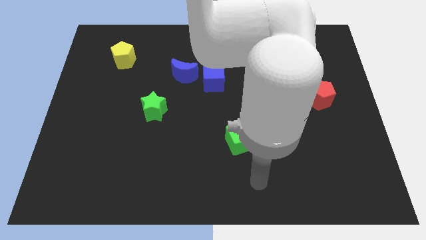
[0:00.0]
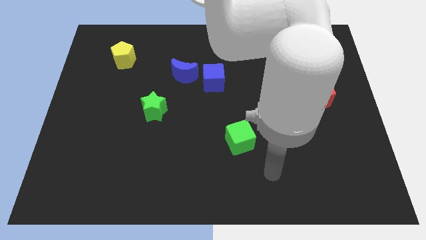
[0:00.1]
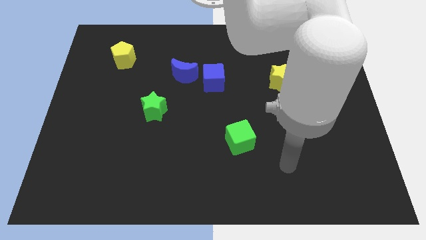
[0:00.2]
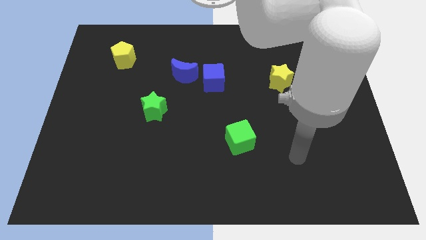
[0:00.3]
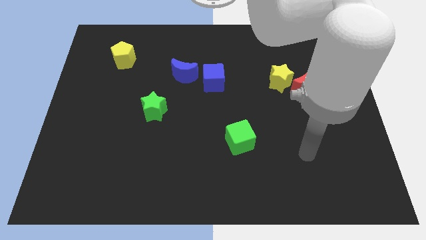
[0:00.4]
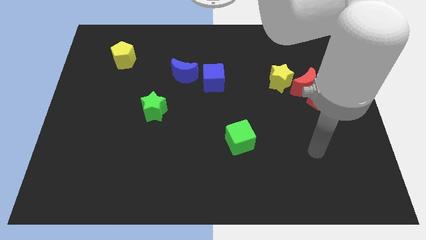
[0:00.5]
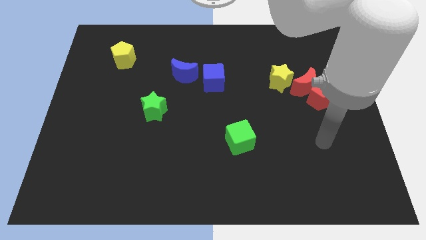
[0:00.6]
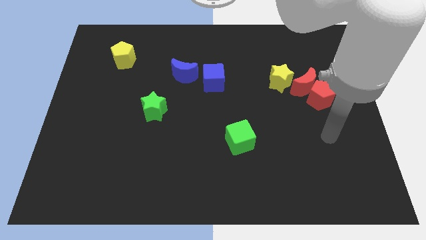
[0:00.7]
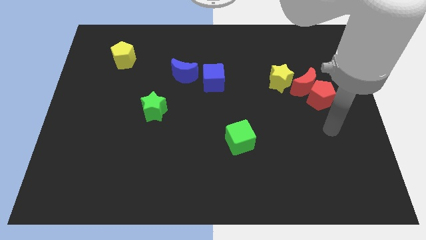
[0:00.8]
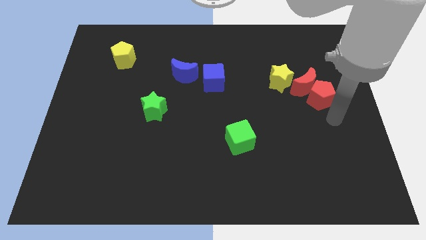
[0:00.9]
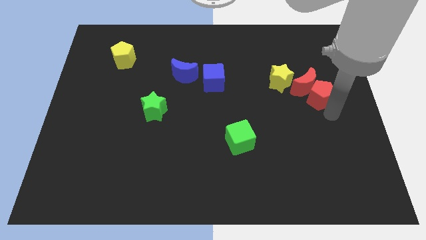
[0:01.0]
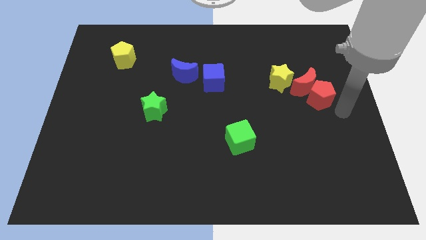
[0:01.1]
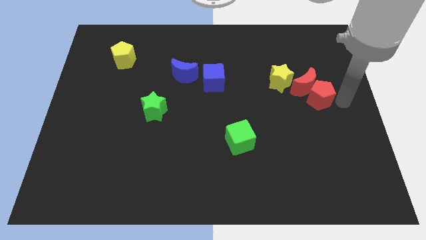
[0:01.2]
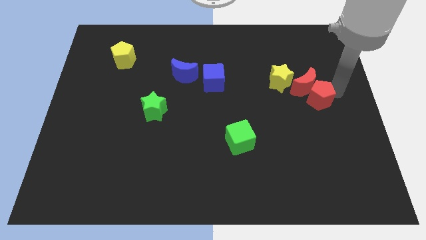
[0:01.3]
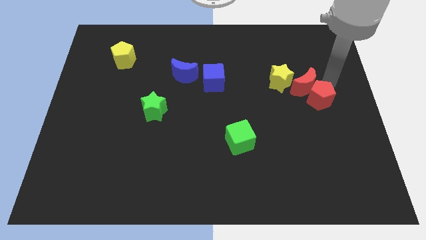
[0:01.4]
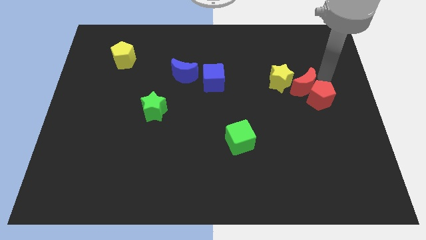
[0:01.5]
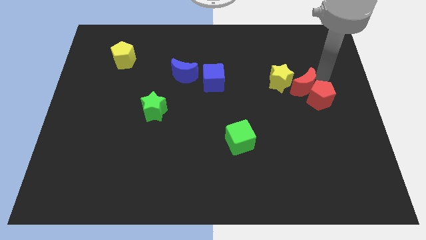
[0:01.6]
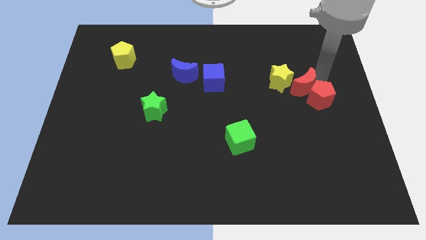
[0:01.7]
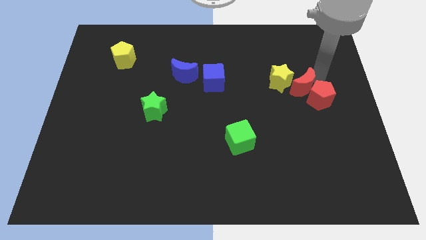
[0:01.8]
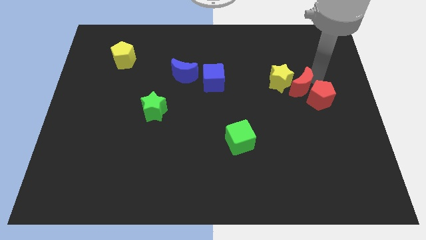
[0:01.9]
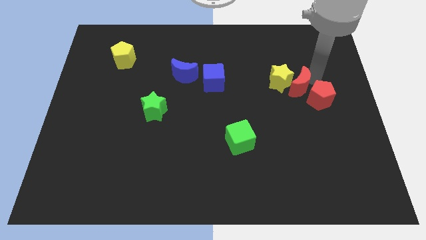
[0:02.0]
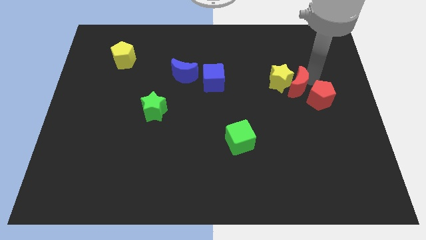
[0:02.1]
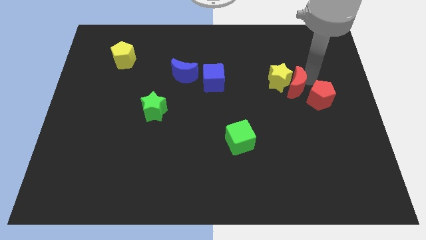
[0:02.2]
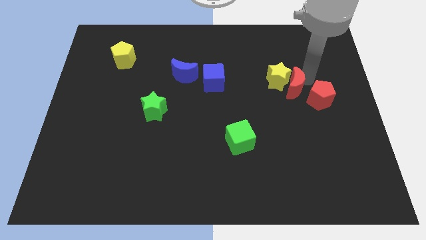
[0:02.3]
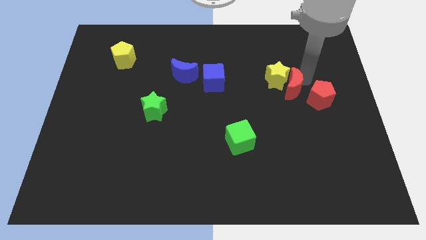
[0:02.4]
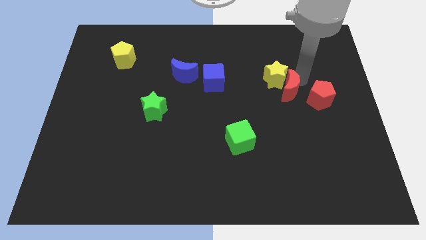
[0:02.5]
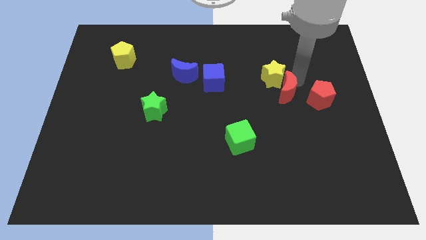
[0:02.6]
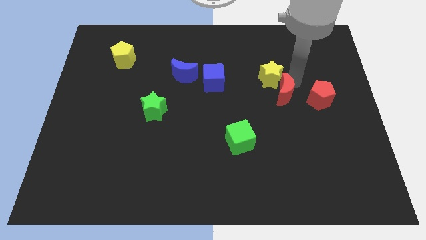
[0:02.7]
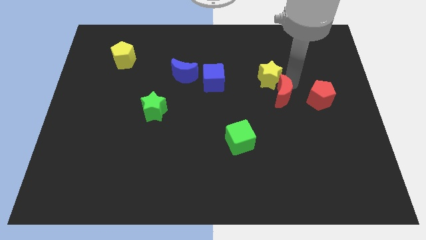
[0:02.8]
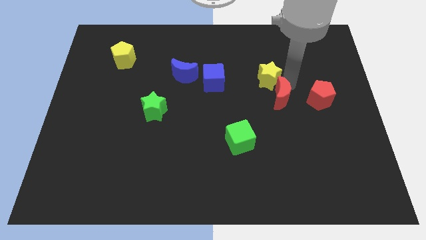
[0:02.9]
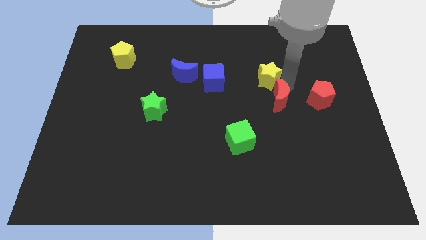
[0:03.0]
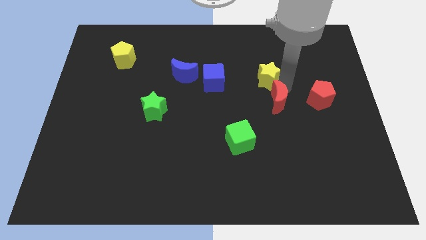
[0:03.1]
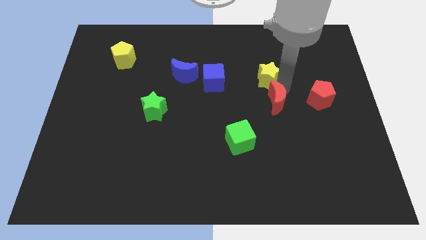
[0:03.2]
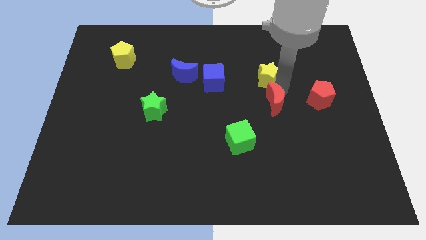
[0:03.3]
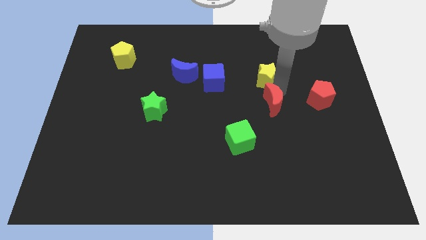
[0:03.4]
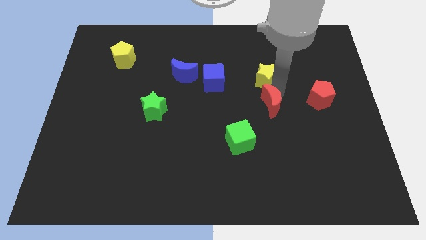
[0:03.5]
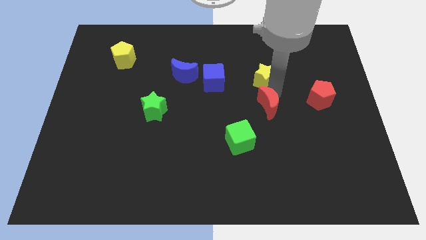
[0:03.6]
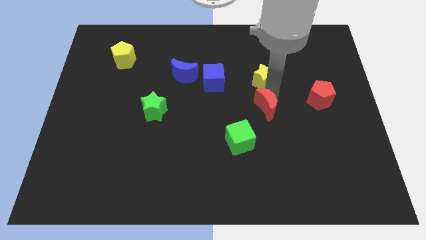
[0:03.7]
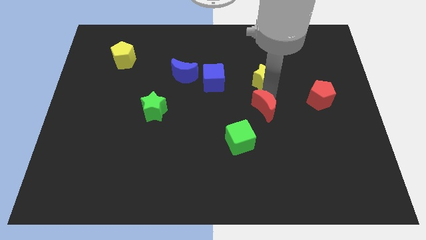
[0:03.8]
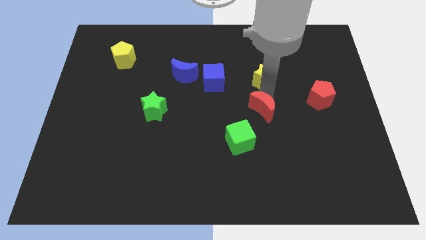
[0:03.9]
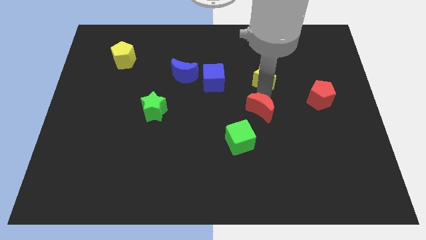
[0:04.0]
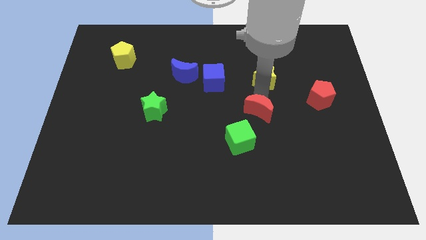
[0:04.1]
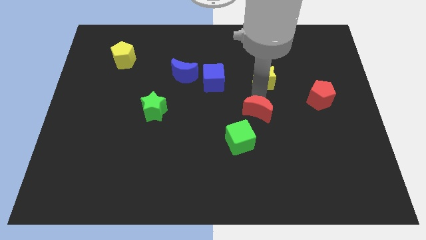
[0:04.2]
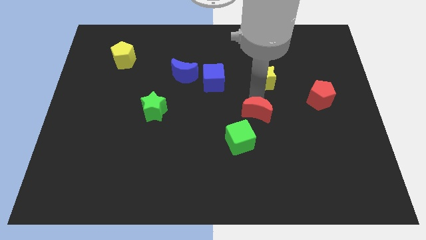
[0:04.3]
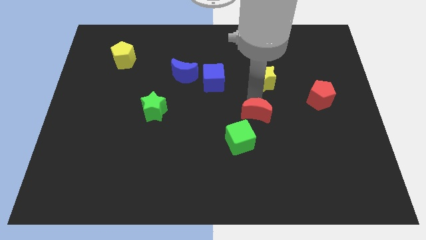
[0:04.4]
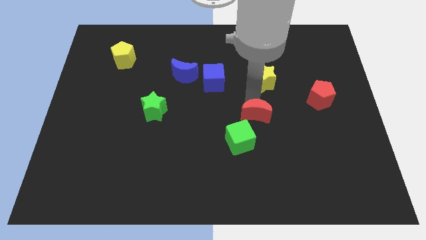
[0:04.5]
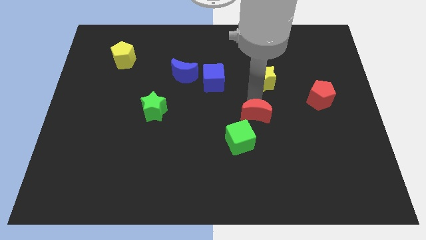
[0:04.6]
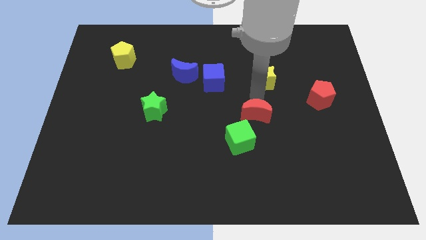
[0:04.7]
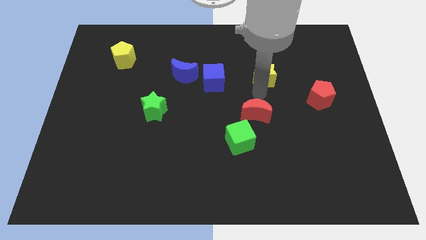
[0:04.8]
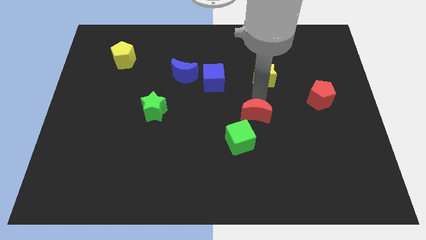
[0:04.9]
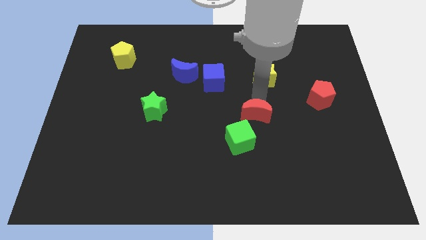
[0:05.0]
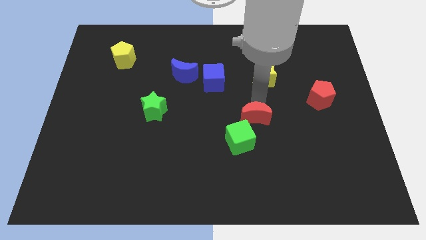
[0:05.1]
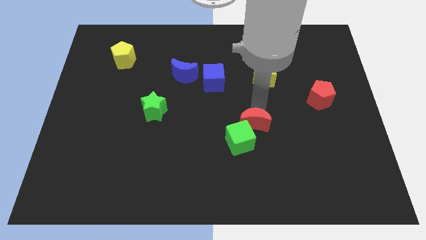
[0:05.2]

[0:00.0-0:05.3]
push the red moon next to the green cube

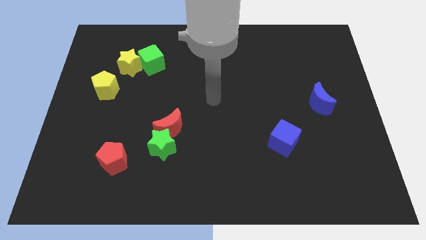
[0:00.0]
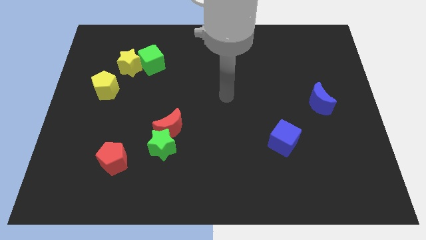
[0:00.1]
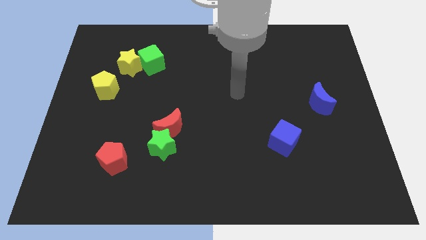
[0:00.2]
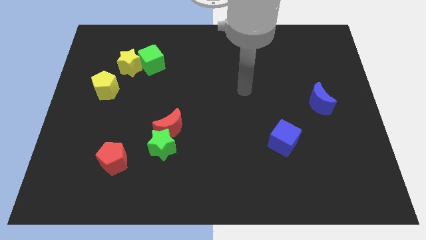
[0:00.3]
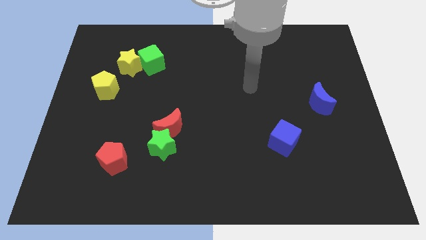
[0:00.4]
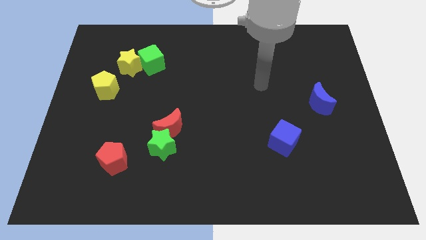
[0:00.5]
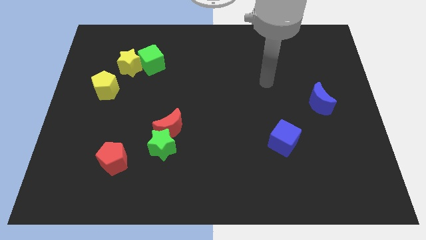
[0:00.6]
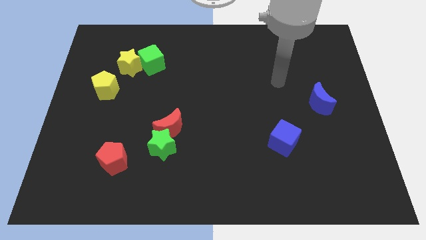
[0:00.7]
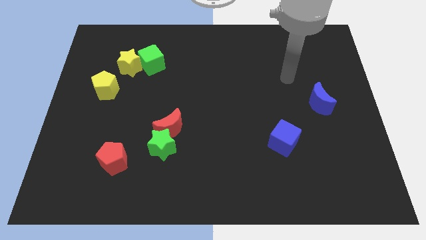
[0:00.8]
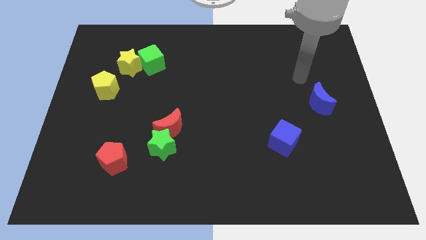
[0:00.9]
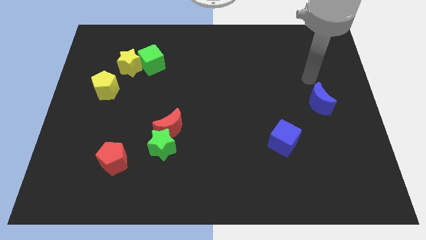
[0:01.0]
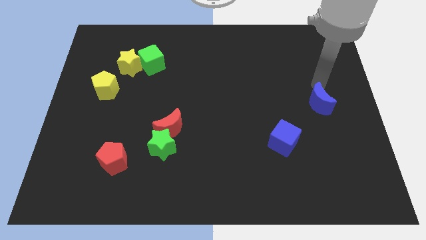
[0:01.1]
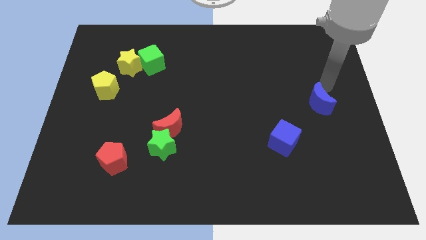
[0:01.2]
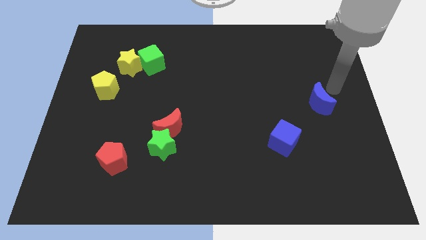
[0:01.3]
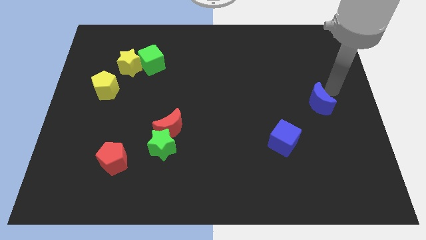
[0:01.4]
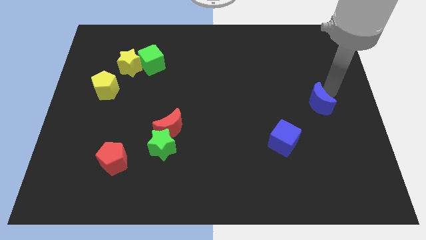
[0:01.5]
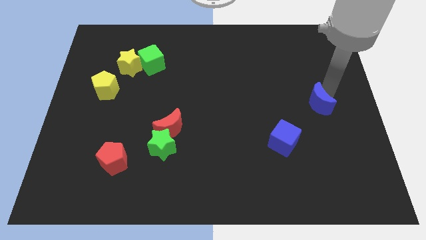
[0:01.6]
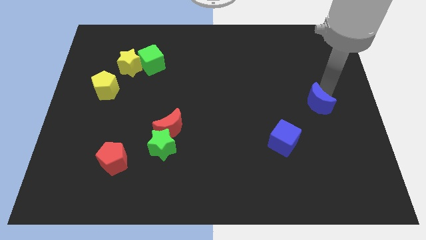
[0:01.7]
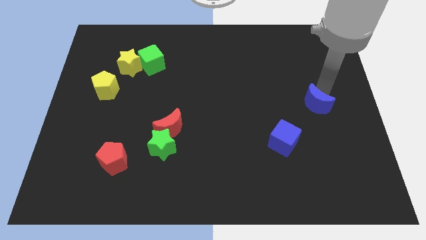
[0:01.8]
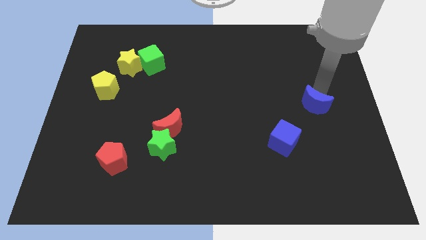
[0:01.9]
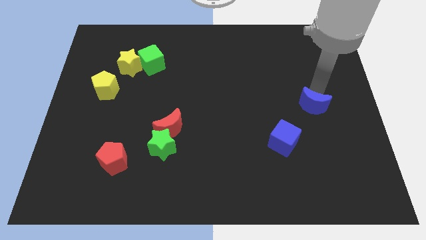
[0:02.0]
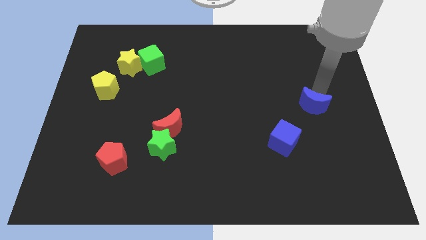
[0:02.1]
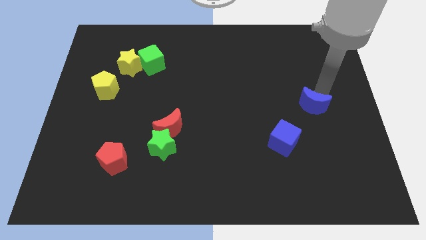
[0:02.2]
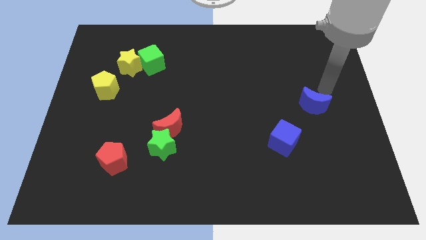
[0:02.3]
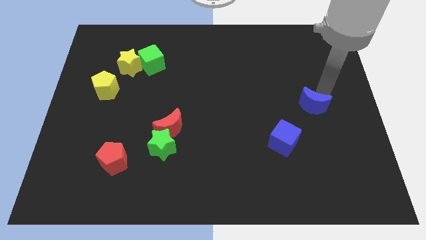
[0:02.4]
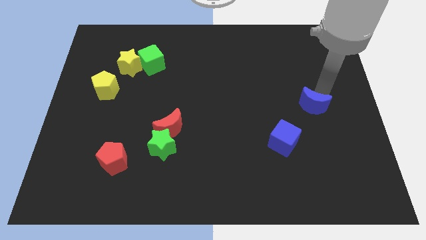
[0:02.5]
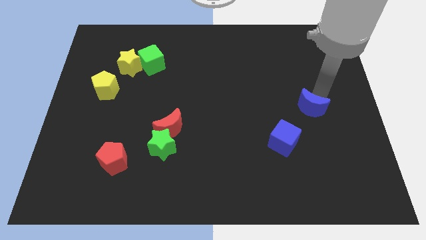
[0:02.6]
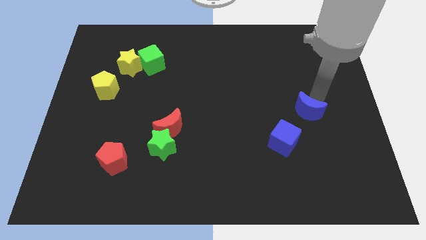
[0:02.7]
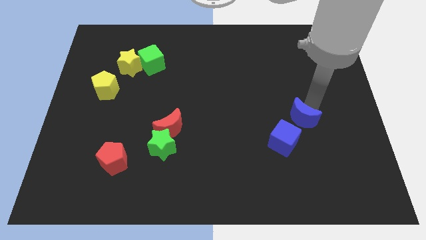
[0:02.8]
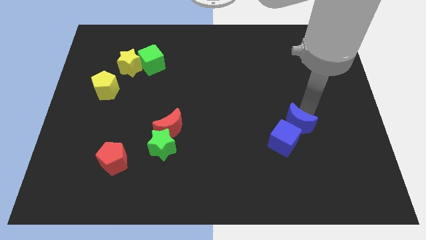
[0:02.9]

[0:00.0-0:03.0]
slide the blue moon next to the blue cube

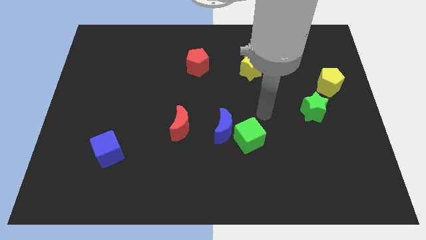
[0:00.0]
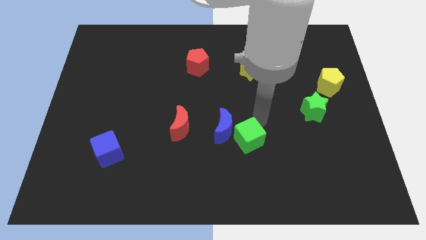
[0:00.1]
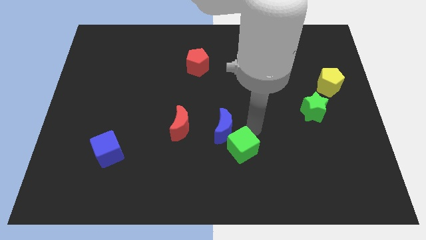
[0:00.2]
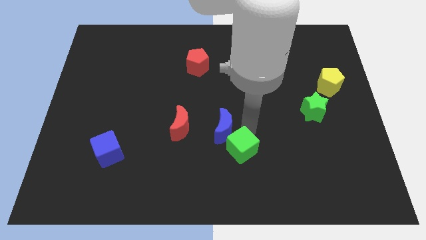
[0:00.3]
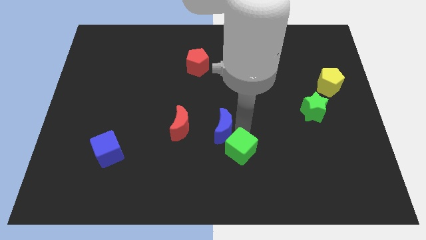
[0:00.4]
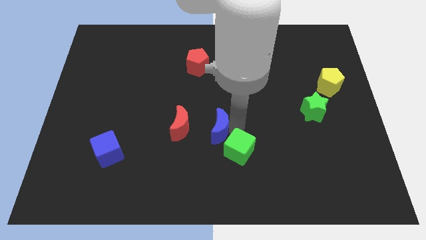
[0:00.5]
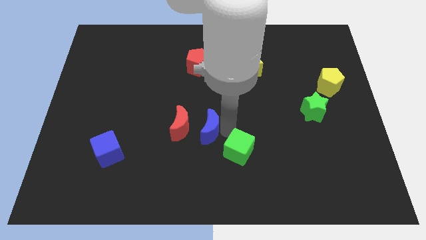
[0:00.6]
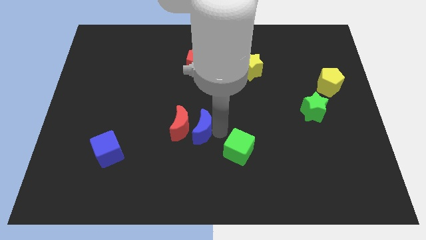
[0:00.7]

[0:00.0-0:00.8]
move the blue moon close to the red moon
